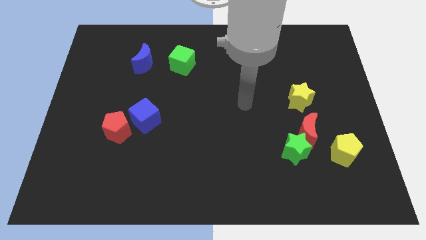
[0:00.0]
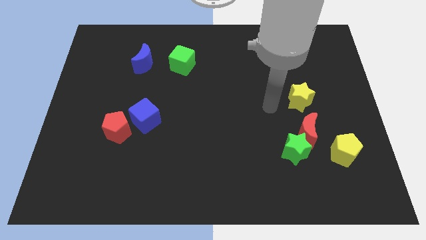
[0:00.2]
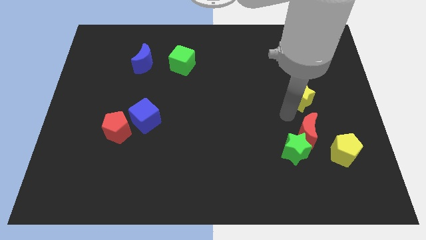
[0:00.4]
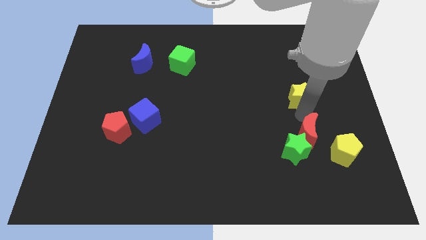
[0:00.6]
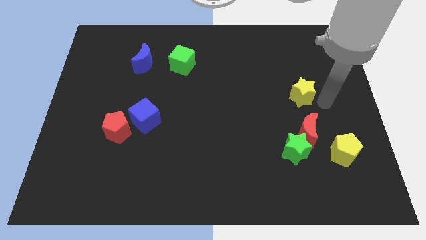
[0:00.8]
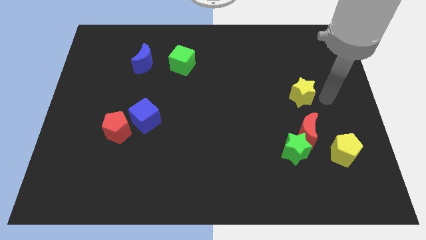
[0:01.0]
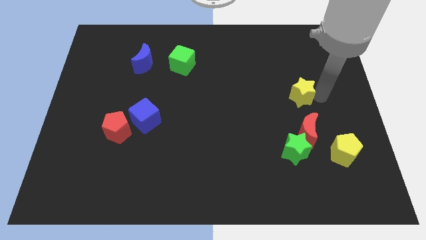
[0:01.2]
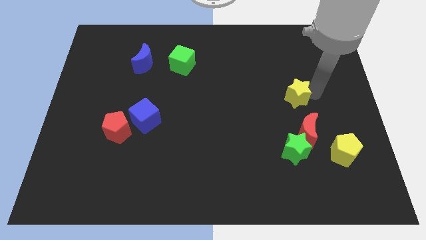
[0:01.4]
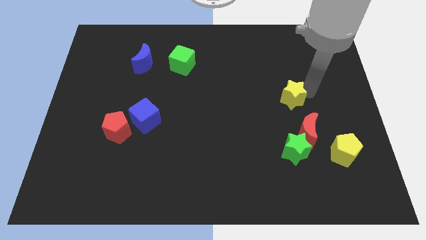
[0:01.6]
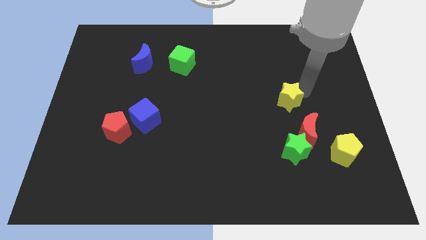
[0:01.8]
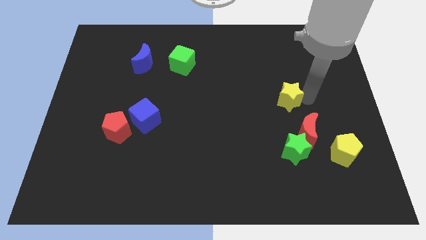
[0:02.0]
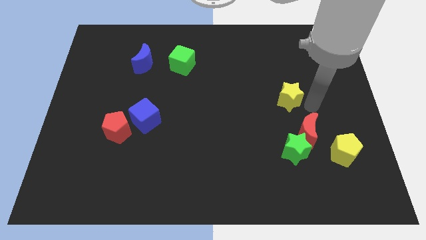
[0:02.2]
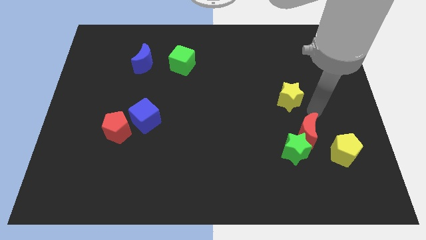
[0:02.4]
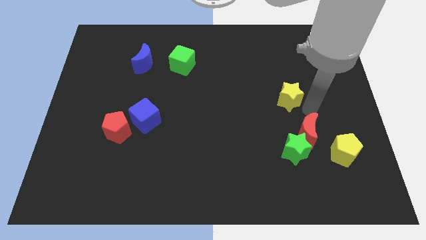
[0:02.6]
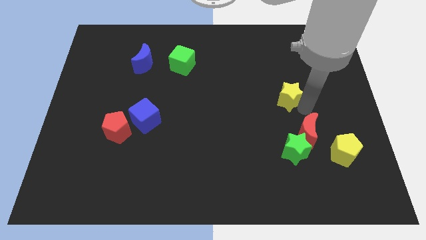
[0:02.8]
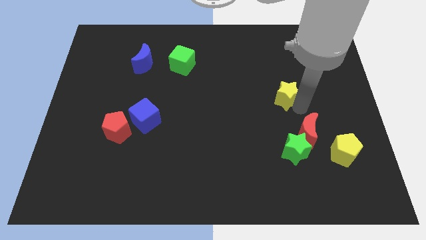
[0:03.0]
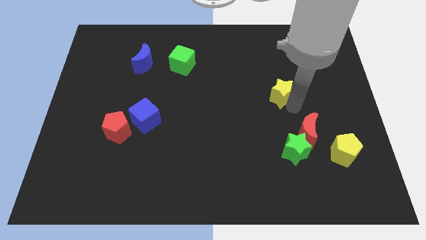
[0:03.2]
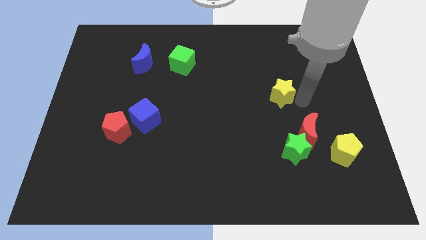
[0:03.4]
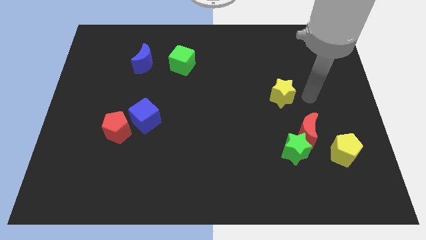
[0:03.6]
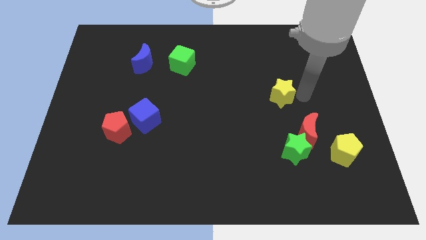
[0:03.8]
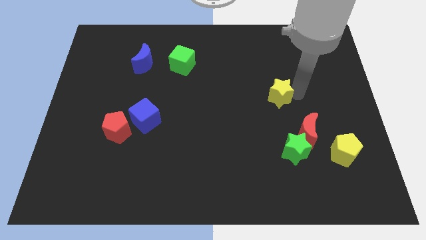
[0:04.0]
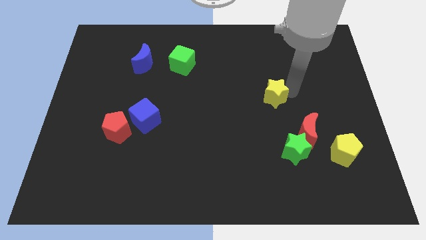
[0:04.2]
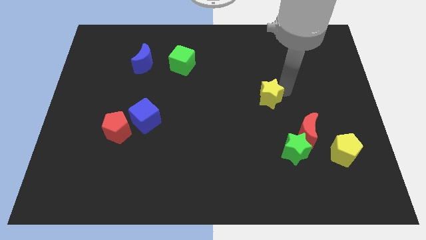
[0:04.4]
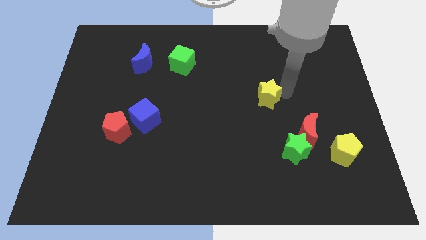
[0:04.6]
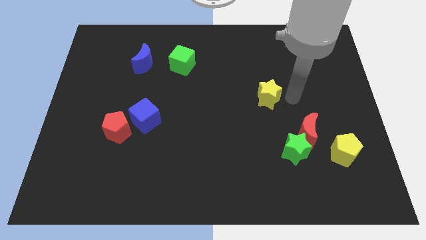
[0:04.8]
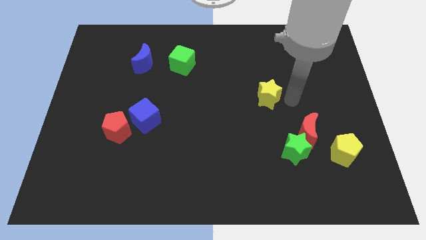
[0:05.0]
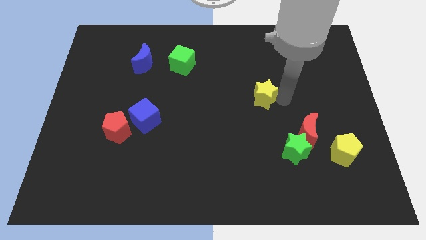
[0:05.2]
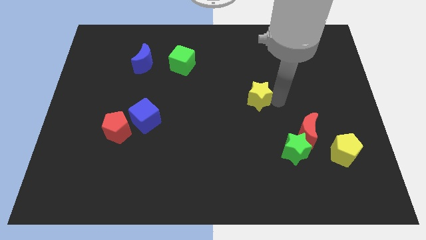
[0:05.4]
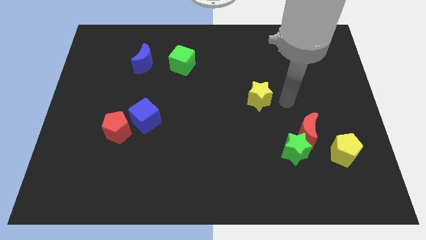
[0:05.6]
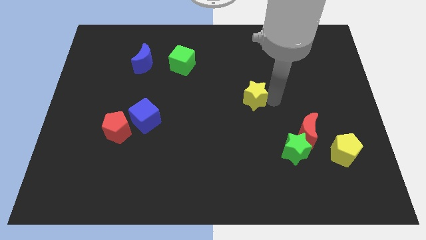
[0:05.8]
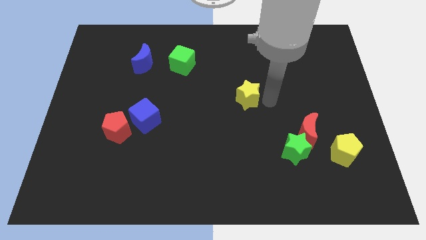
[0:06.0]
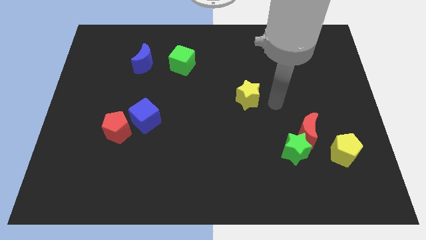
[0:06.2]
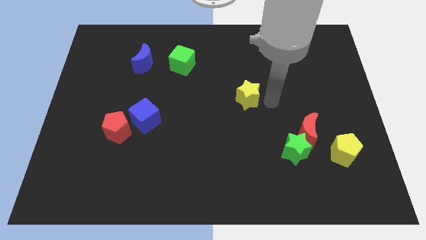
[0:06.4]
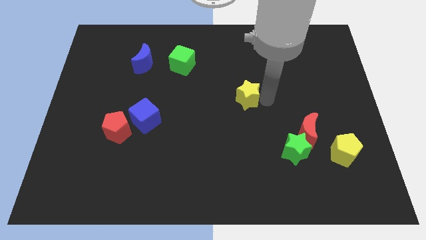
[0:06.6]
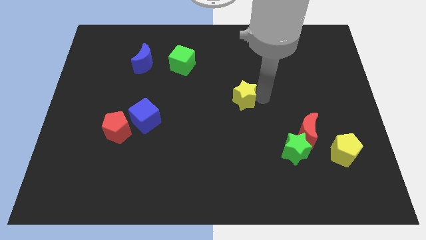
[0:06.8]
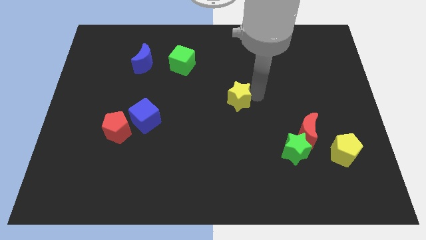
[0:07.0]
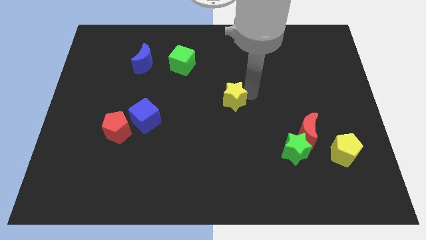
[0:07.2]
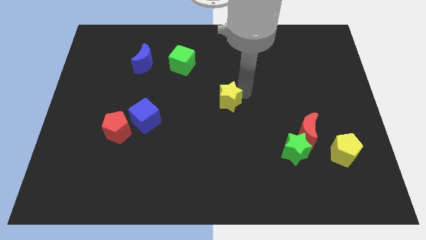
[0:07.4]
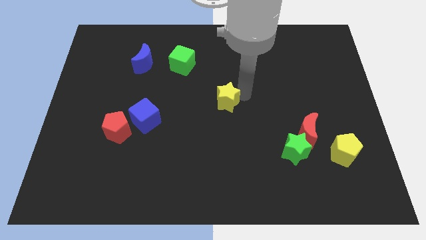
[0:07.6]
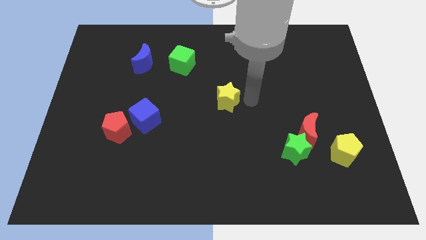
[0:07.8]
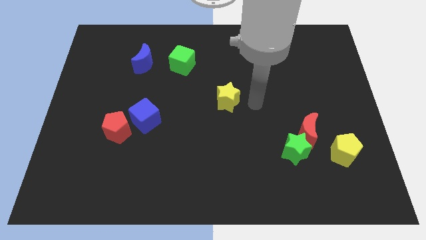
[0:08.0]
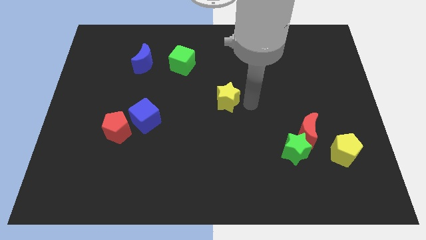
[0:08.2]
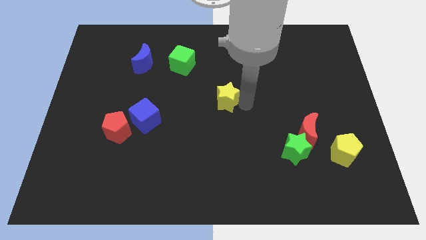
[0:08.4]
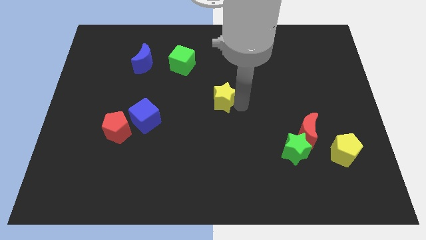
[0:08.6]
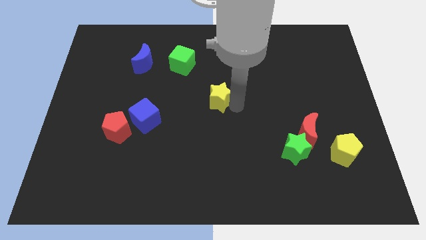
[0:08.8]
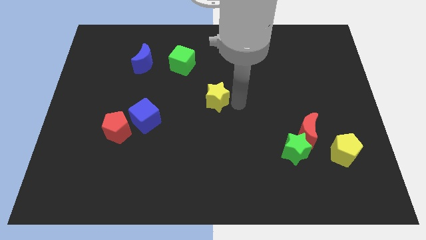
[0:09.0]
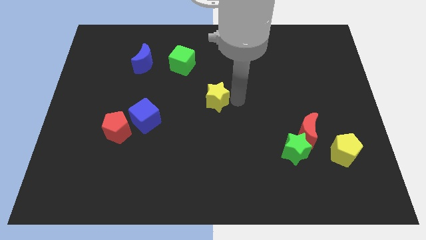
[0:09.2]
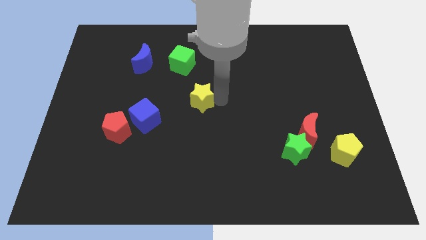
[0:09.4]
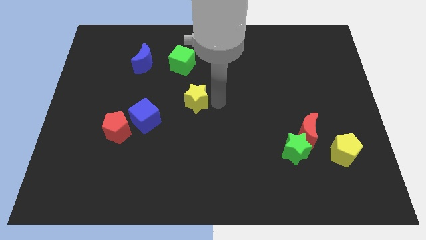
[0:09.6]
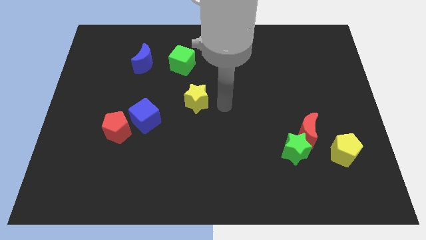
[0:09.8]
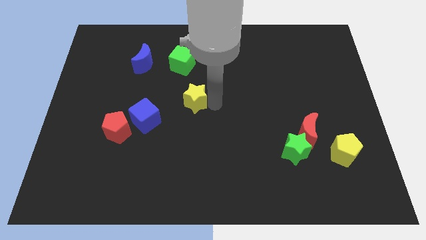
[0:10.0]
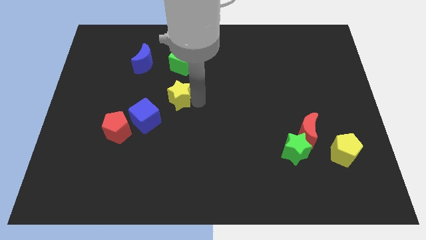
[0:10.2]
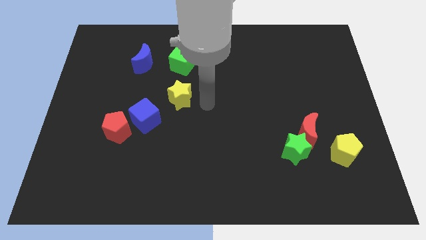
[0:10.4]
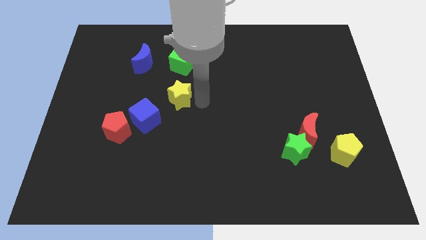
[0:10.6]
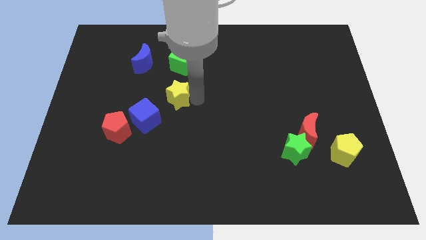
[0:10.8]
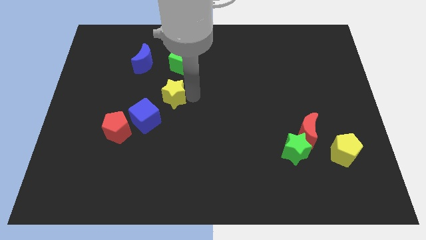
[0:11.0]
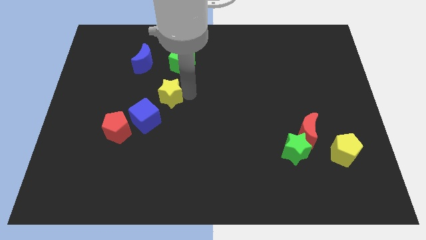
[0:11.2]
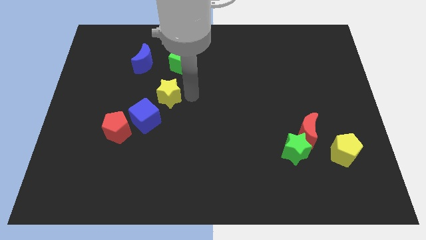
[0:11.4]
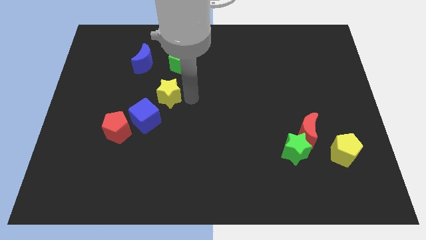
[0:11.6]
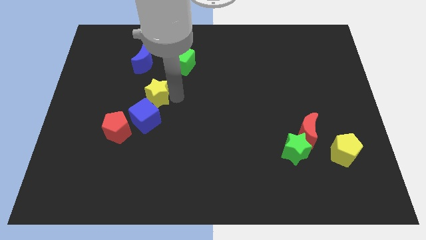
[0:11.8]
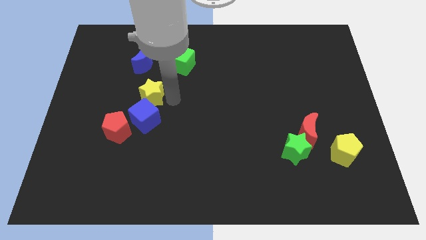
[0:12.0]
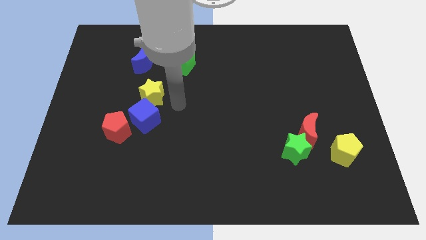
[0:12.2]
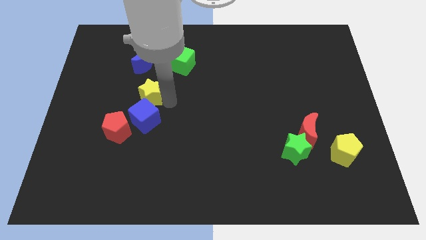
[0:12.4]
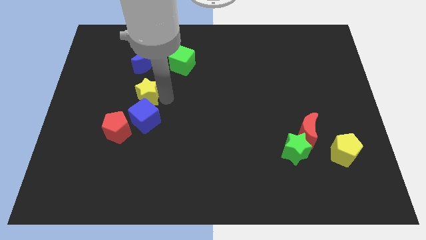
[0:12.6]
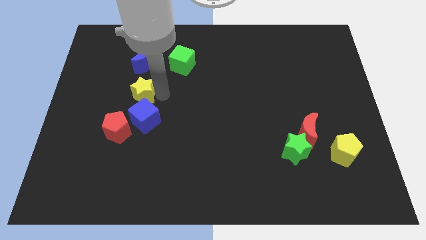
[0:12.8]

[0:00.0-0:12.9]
slide the yellow star above the red pentagon

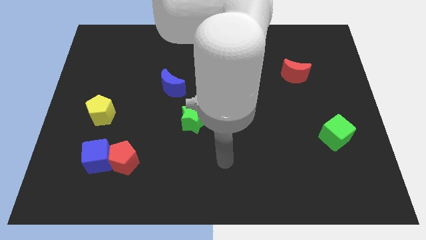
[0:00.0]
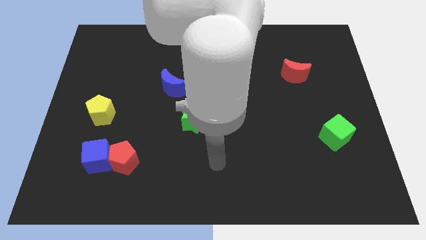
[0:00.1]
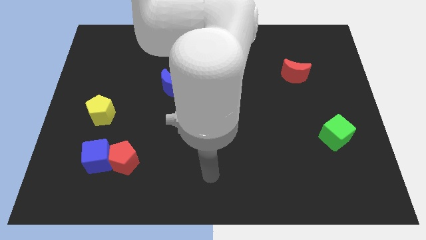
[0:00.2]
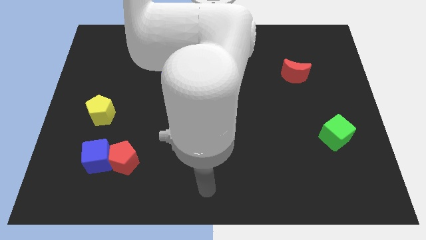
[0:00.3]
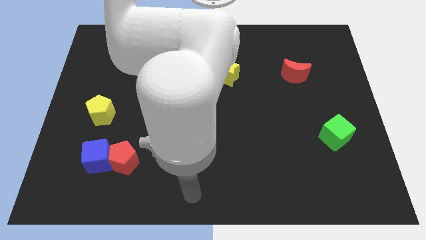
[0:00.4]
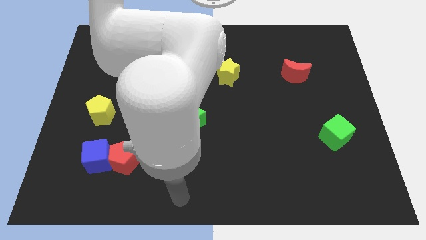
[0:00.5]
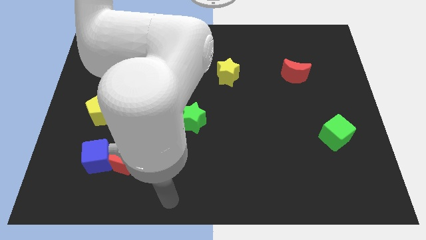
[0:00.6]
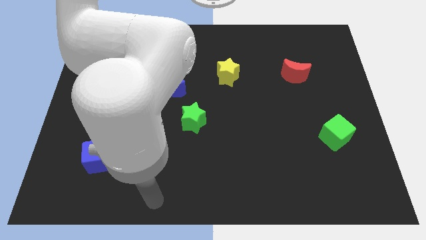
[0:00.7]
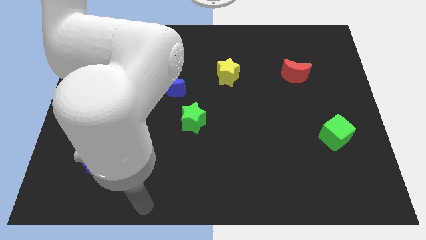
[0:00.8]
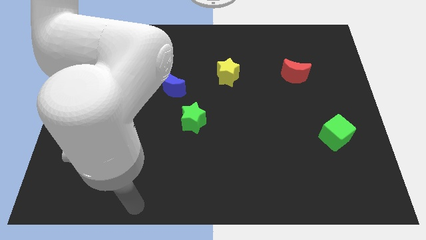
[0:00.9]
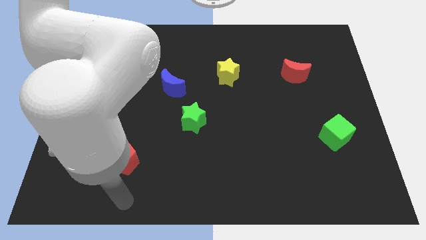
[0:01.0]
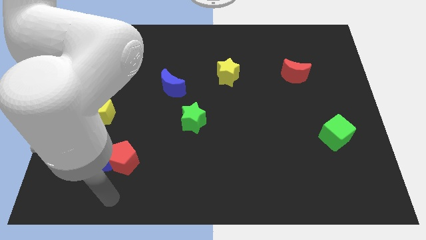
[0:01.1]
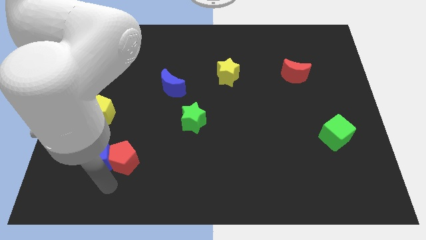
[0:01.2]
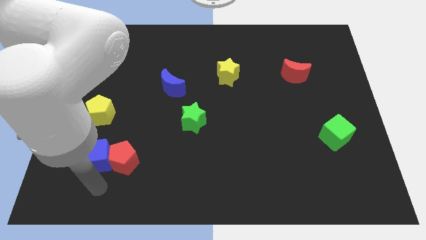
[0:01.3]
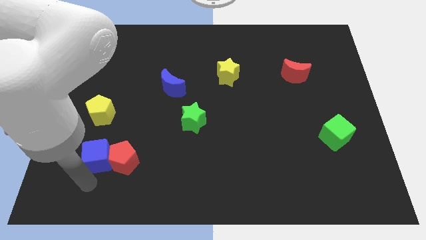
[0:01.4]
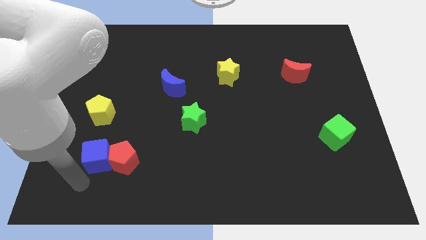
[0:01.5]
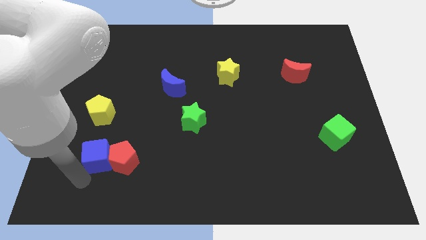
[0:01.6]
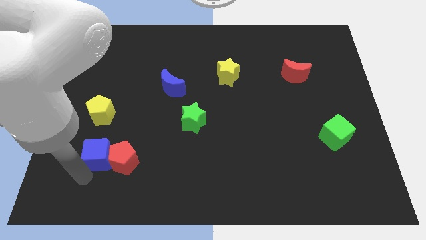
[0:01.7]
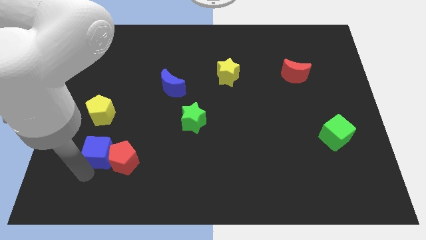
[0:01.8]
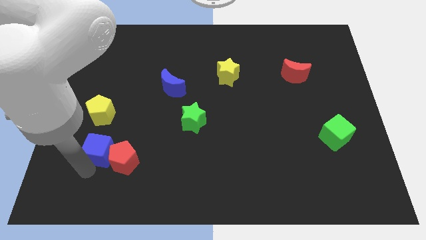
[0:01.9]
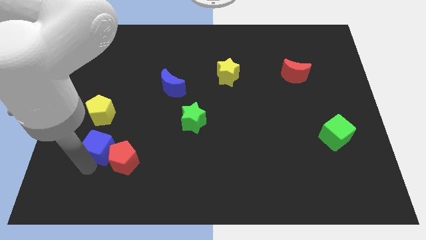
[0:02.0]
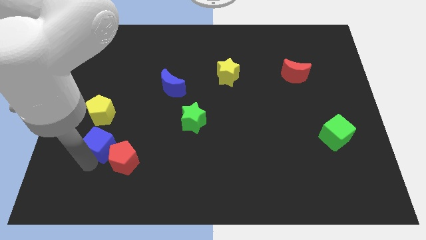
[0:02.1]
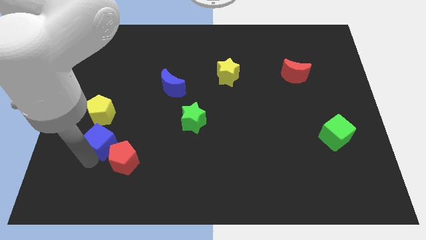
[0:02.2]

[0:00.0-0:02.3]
move the blue cube diagonally down and to the right of the yellow pentagon

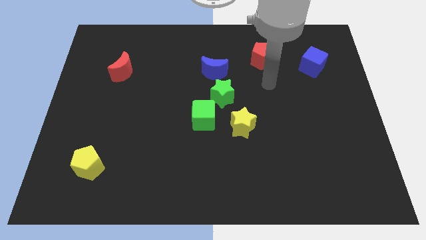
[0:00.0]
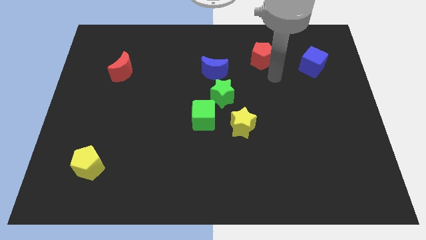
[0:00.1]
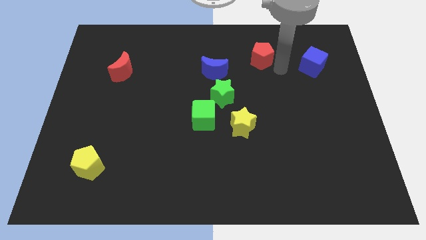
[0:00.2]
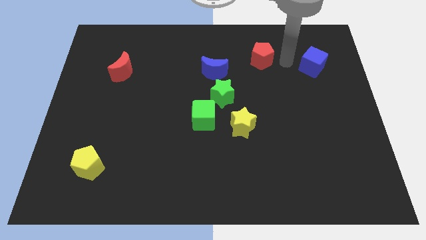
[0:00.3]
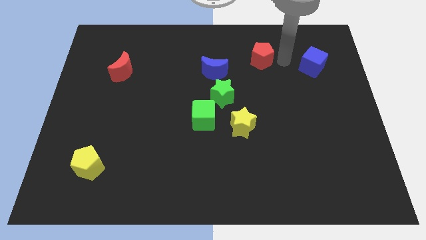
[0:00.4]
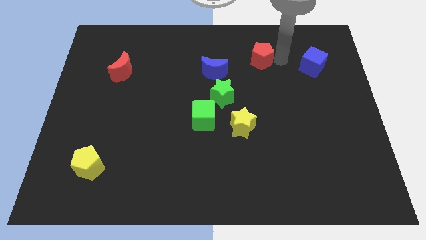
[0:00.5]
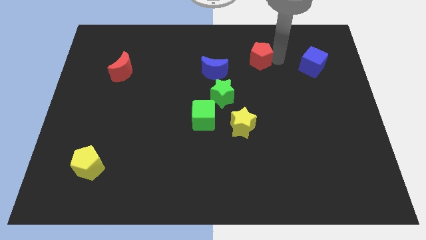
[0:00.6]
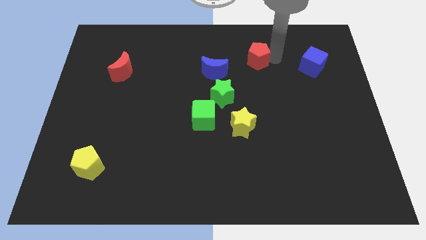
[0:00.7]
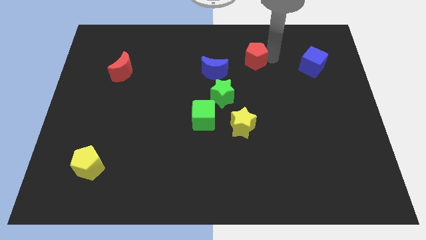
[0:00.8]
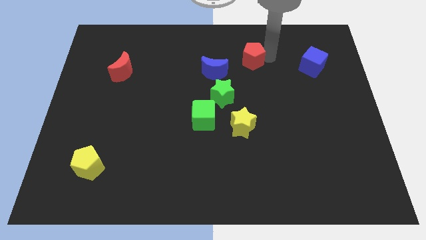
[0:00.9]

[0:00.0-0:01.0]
put the red pentagon to the top right side of the blue moon
